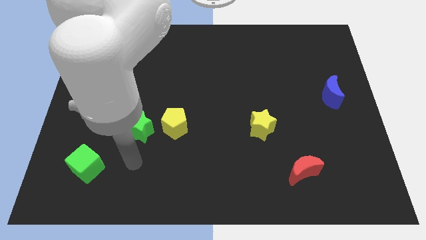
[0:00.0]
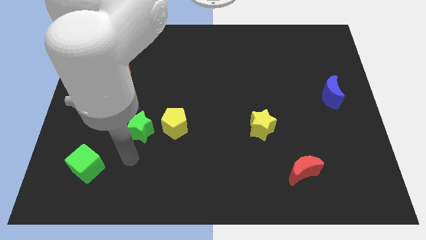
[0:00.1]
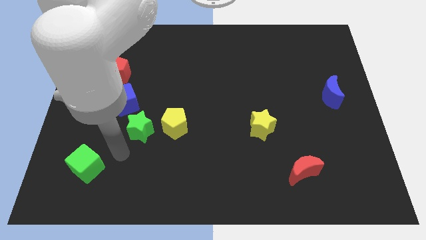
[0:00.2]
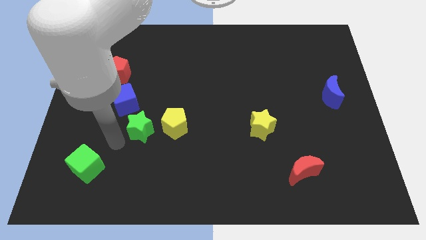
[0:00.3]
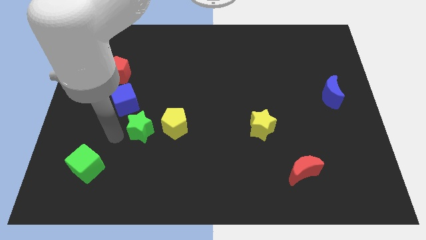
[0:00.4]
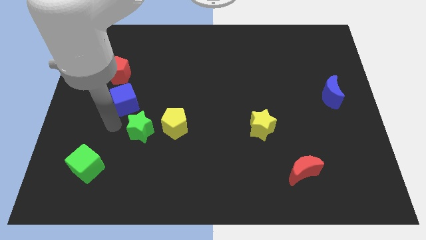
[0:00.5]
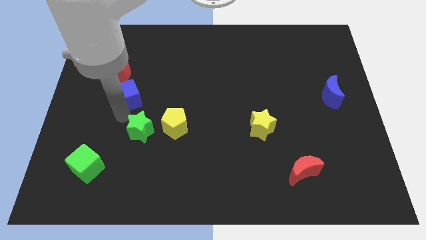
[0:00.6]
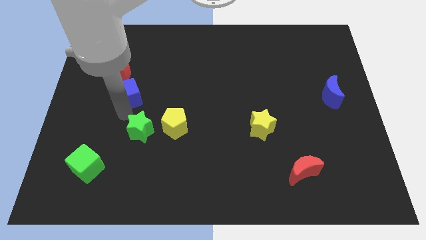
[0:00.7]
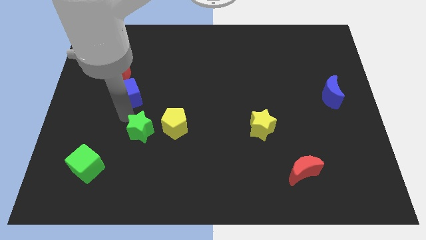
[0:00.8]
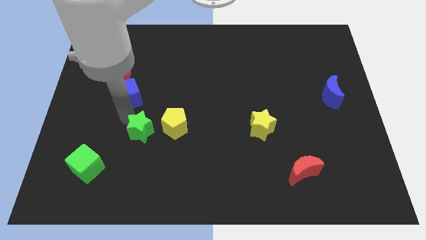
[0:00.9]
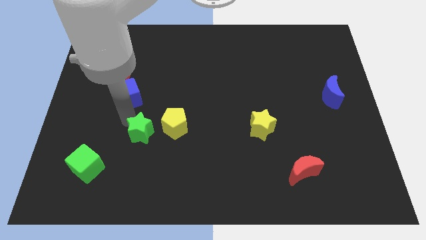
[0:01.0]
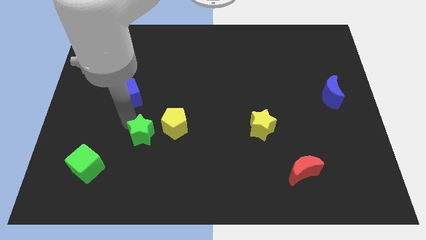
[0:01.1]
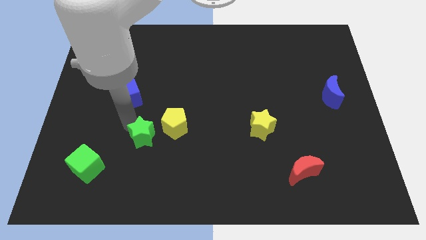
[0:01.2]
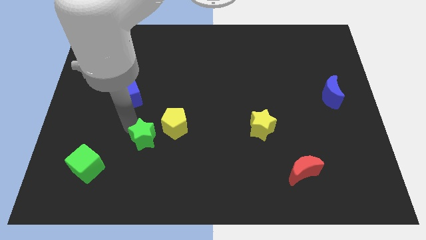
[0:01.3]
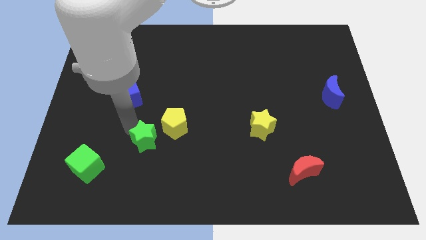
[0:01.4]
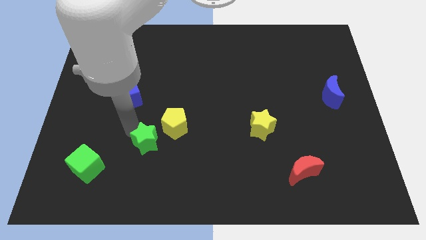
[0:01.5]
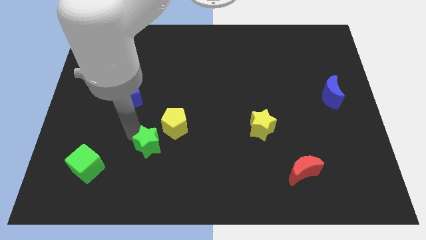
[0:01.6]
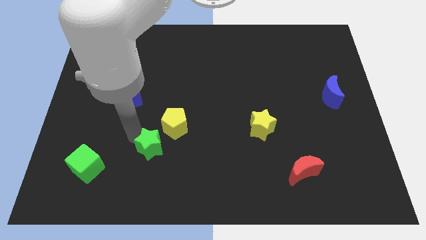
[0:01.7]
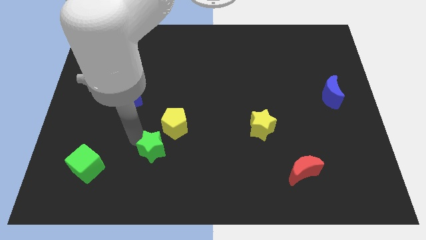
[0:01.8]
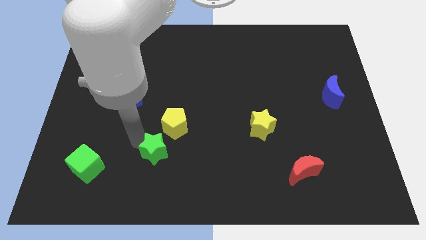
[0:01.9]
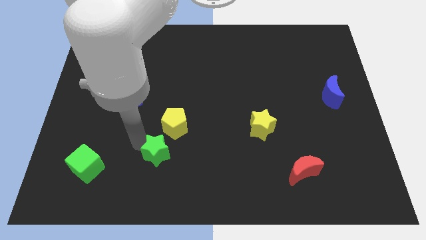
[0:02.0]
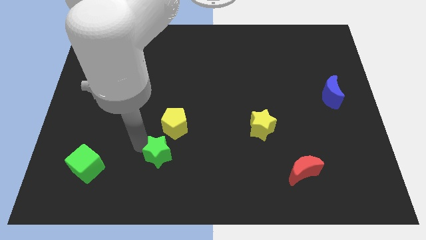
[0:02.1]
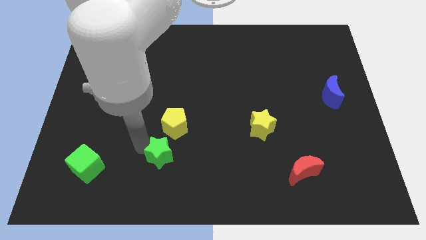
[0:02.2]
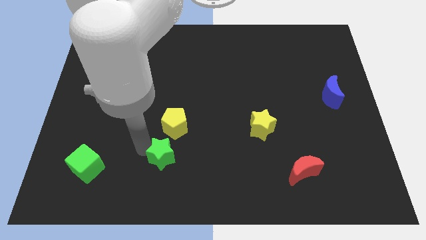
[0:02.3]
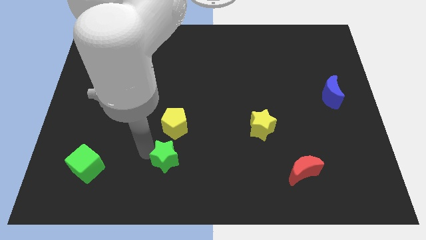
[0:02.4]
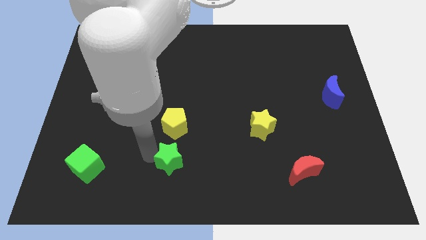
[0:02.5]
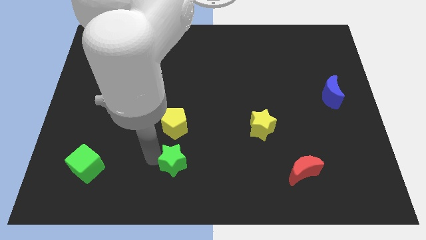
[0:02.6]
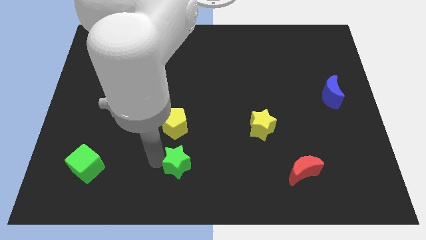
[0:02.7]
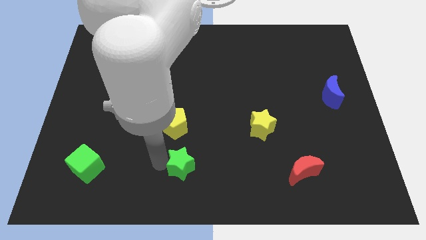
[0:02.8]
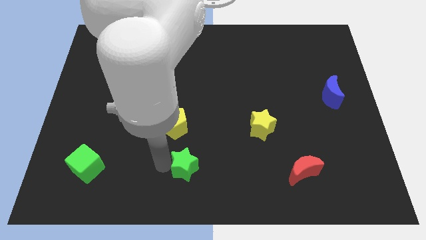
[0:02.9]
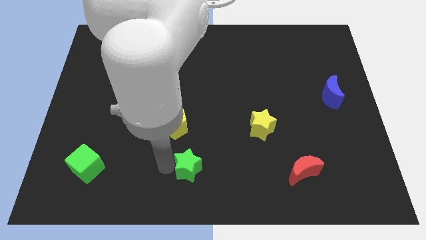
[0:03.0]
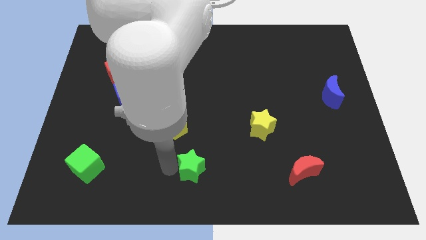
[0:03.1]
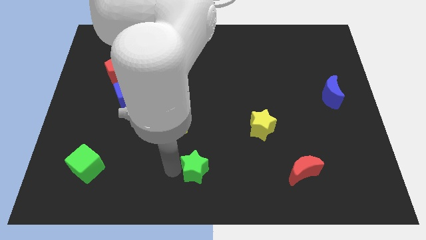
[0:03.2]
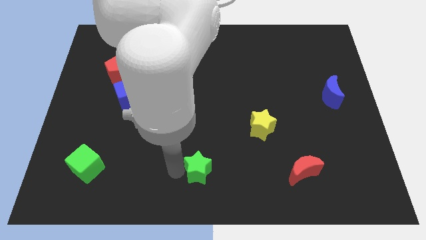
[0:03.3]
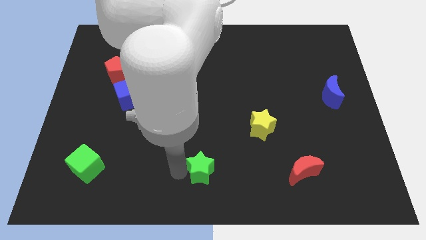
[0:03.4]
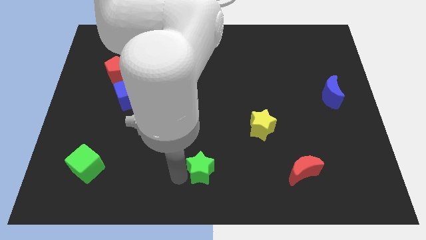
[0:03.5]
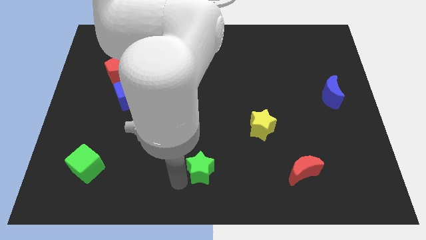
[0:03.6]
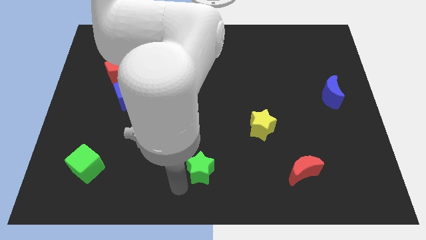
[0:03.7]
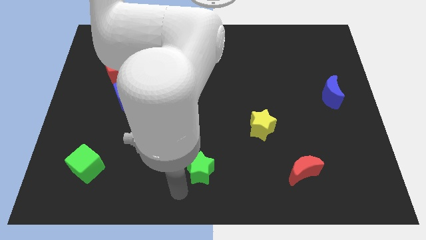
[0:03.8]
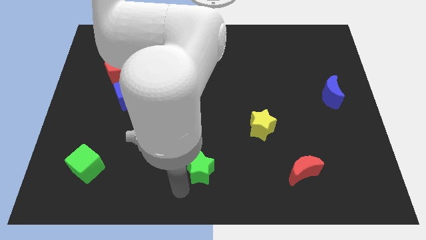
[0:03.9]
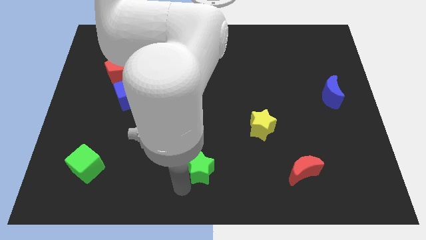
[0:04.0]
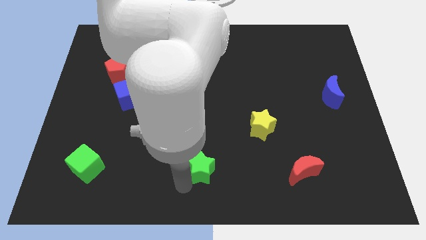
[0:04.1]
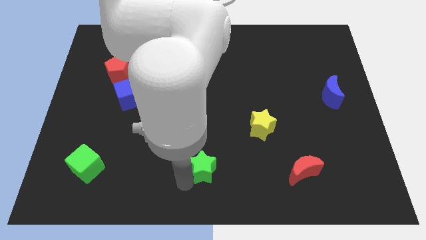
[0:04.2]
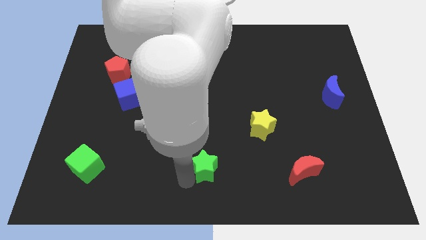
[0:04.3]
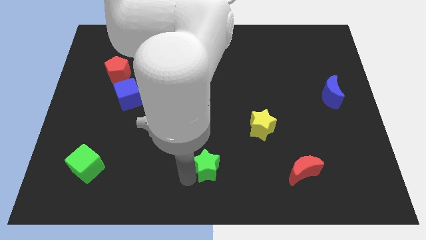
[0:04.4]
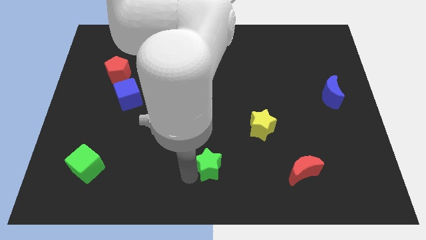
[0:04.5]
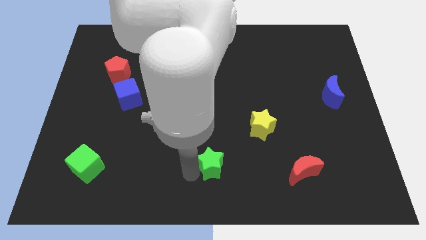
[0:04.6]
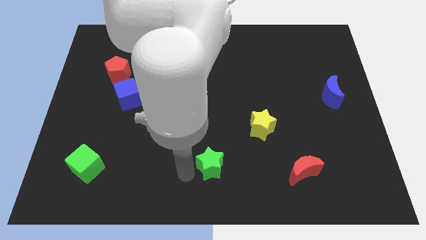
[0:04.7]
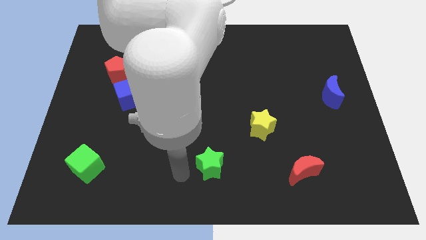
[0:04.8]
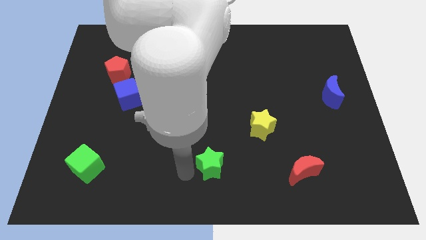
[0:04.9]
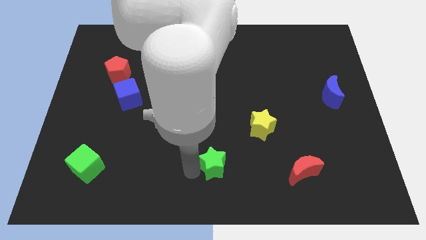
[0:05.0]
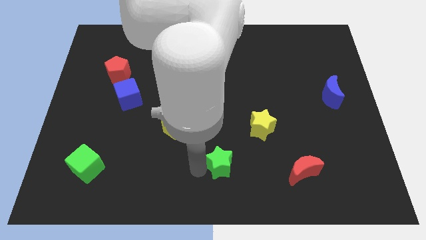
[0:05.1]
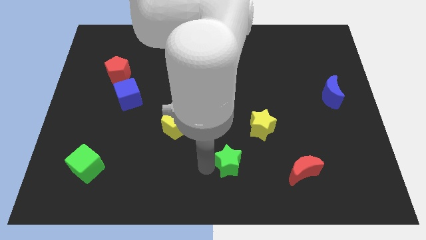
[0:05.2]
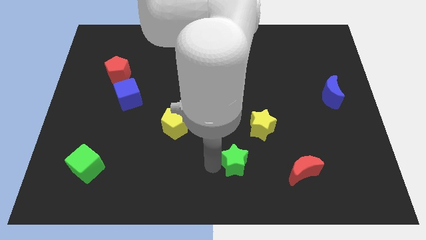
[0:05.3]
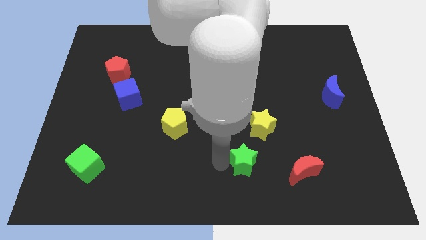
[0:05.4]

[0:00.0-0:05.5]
push the green star to the bottom side of the yellow star

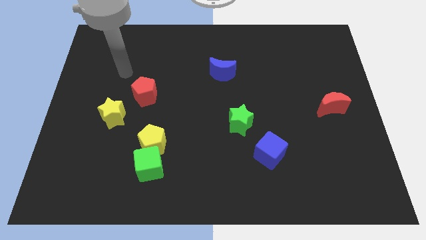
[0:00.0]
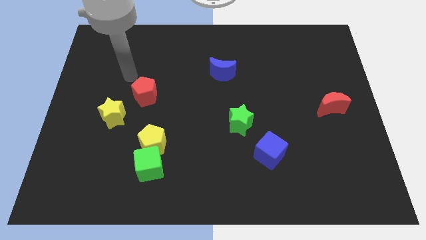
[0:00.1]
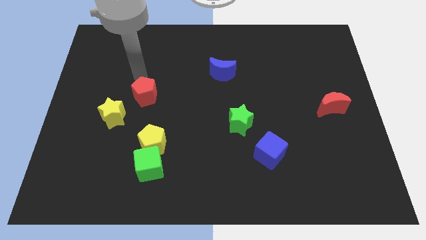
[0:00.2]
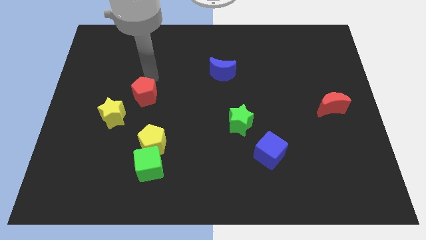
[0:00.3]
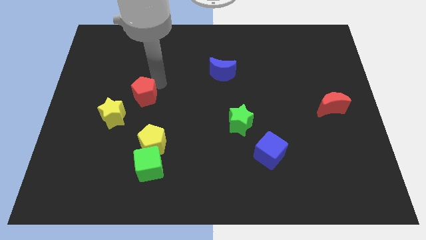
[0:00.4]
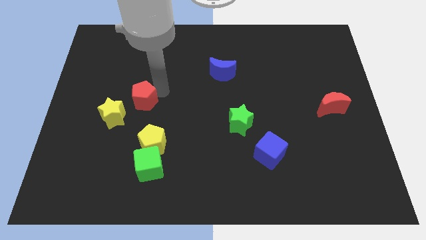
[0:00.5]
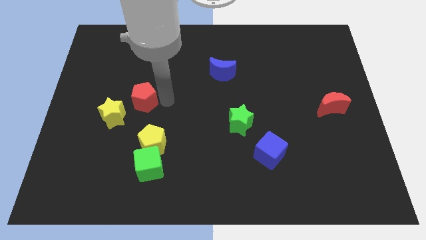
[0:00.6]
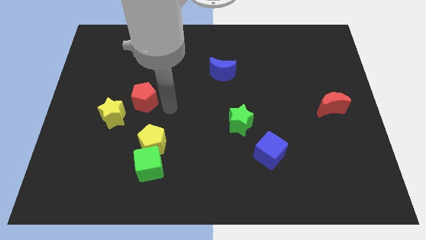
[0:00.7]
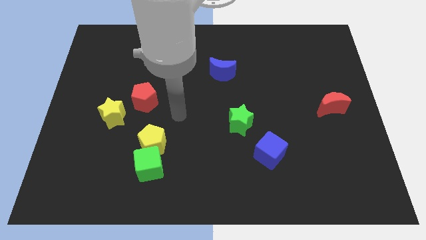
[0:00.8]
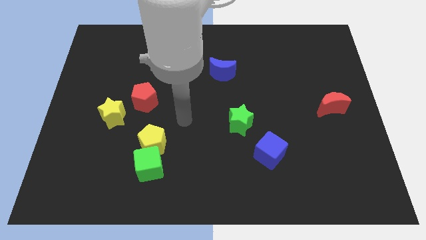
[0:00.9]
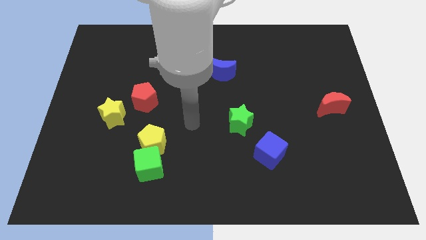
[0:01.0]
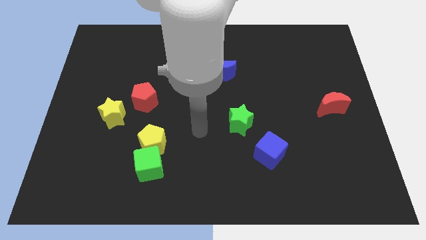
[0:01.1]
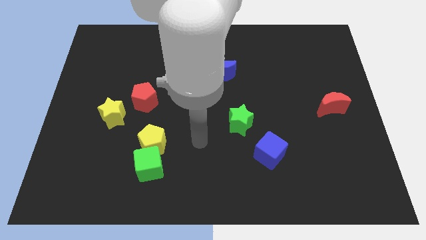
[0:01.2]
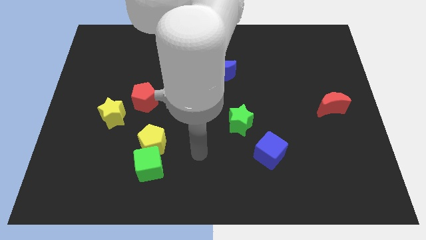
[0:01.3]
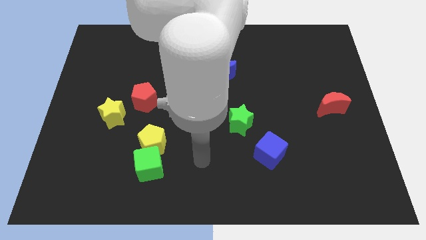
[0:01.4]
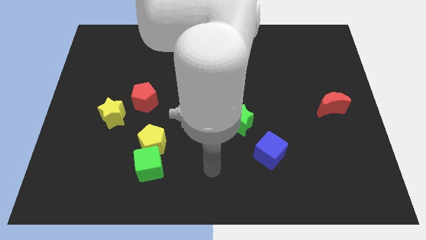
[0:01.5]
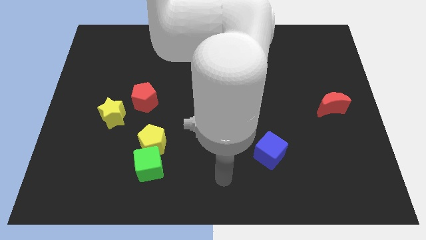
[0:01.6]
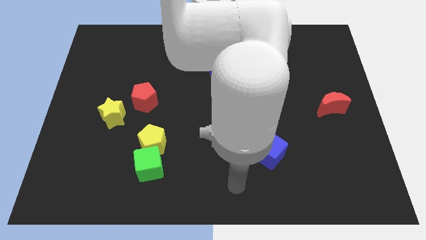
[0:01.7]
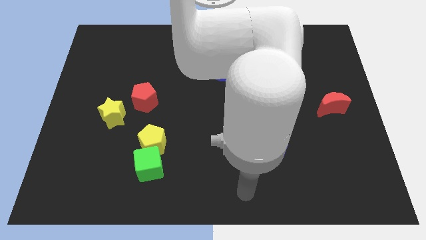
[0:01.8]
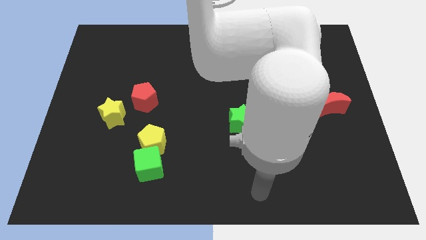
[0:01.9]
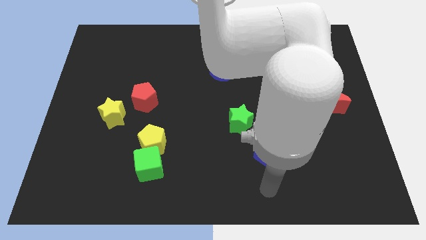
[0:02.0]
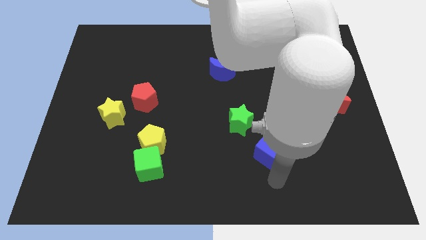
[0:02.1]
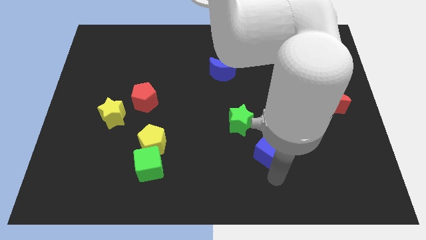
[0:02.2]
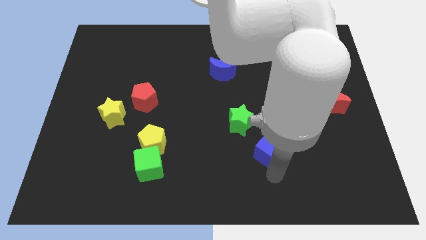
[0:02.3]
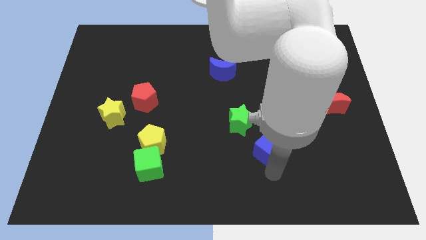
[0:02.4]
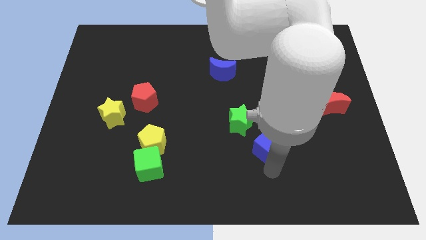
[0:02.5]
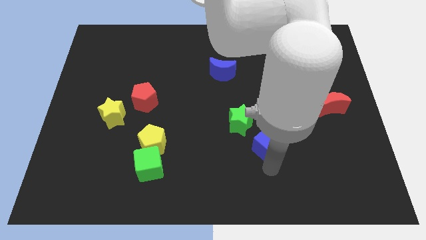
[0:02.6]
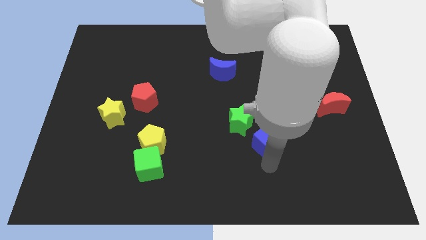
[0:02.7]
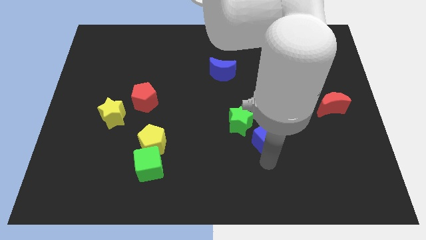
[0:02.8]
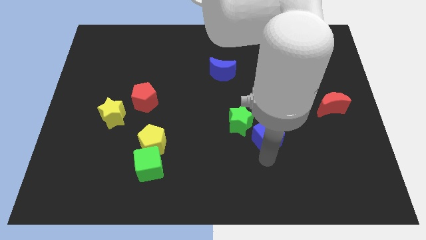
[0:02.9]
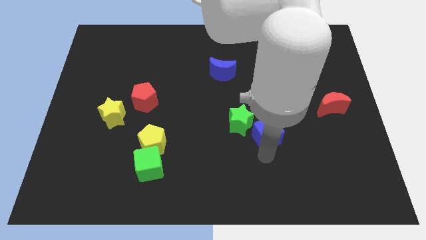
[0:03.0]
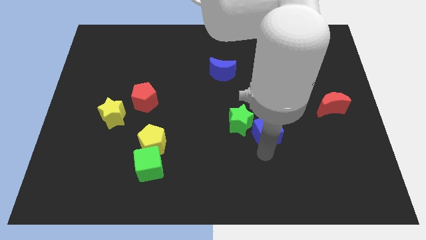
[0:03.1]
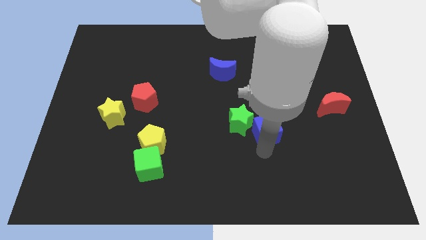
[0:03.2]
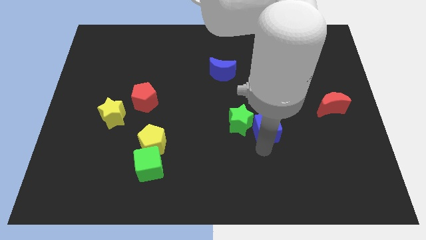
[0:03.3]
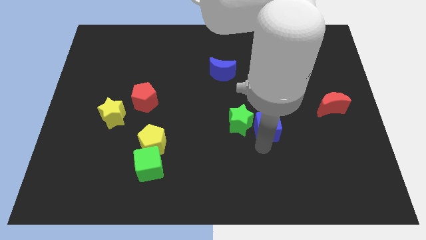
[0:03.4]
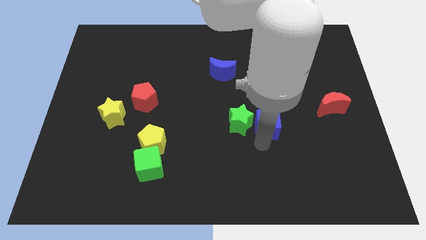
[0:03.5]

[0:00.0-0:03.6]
slide the blue cube to the top right side of the green star
